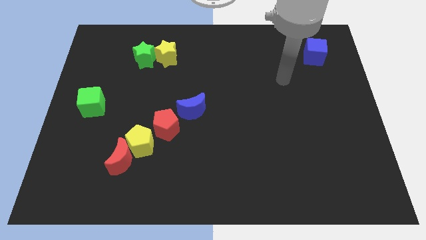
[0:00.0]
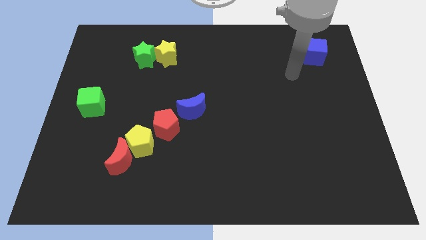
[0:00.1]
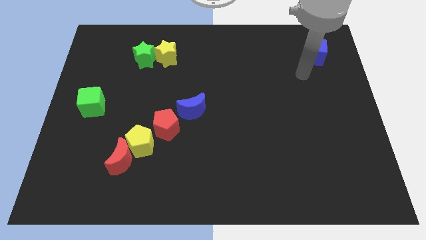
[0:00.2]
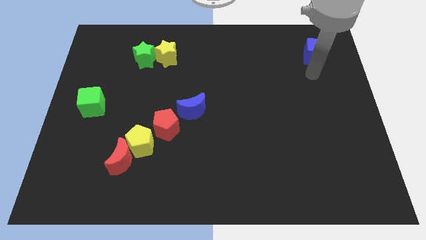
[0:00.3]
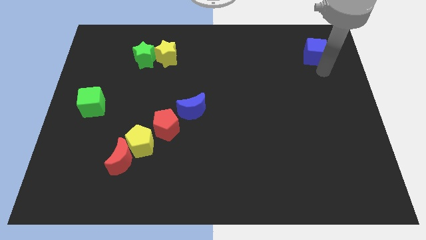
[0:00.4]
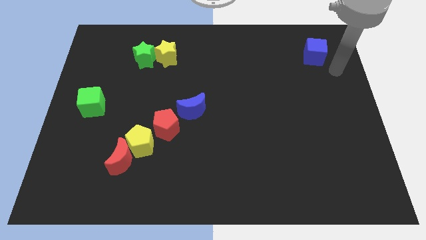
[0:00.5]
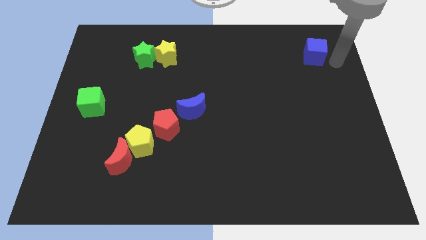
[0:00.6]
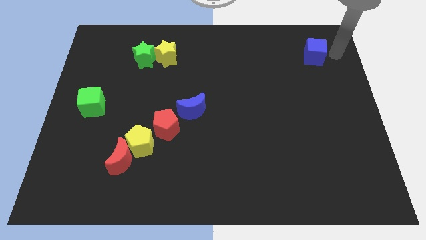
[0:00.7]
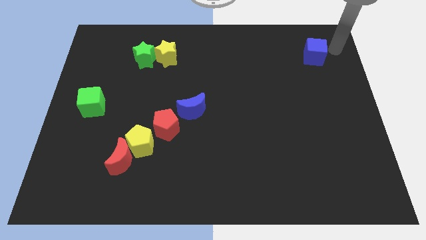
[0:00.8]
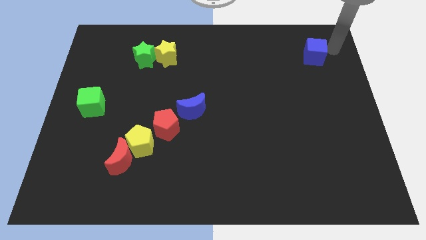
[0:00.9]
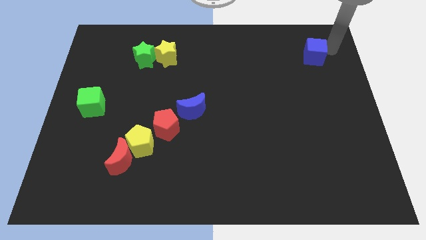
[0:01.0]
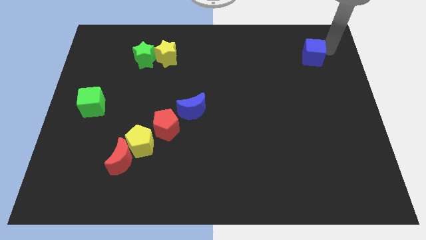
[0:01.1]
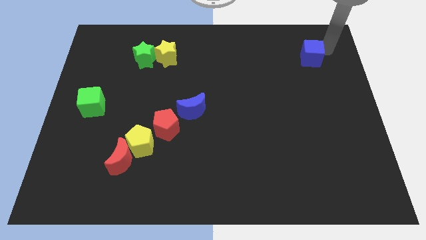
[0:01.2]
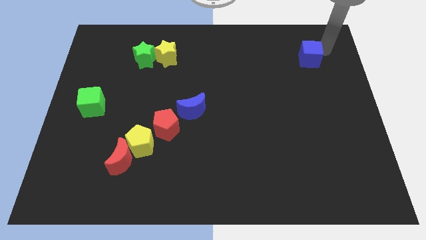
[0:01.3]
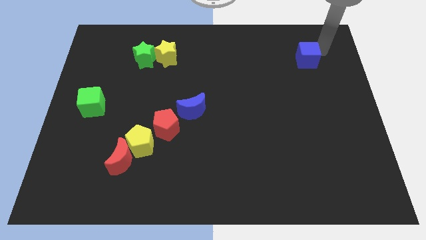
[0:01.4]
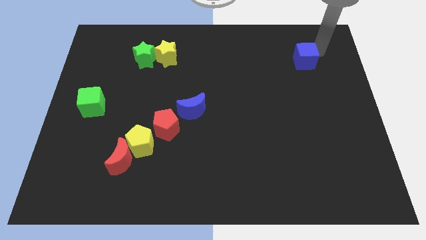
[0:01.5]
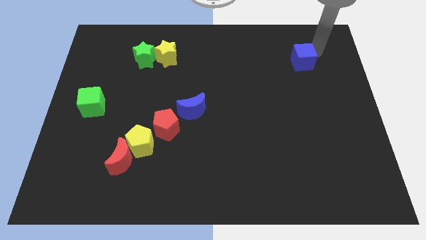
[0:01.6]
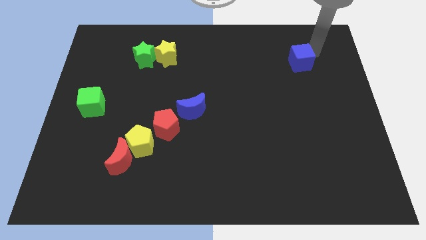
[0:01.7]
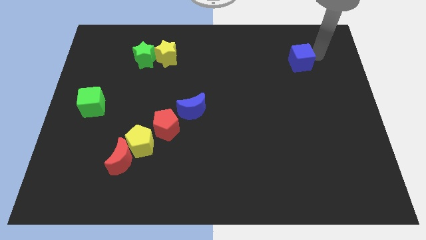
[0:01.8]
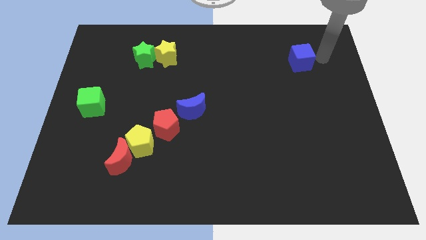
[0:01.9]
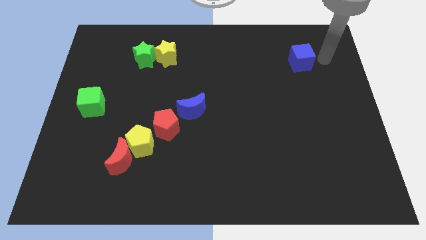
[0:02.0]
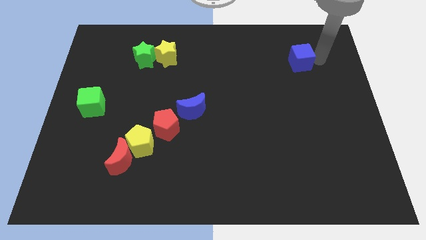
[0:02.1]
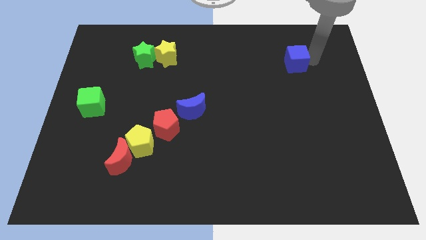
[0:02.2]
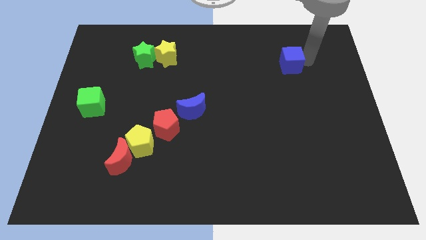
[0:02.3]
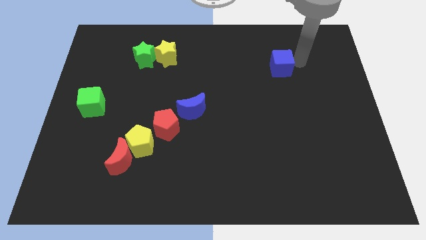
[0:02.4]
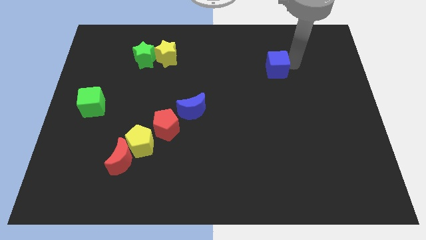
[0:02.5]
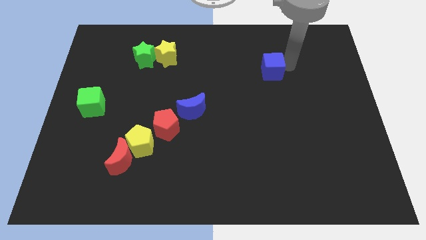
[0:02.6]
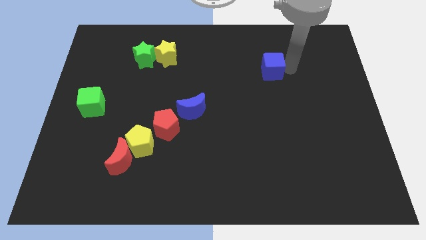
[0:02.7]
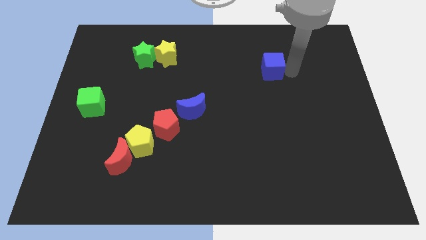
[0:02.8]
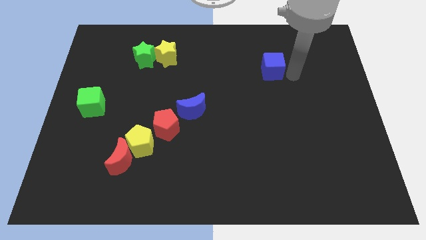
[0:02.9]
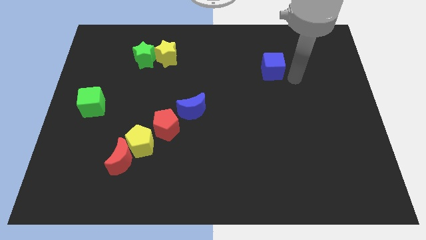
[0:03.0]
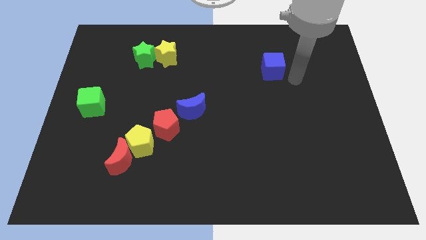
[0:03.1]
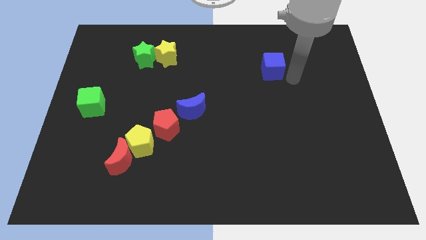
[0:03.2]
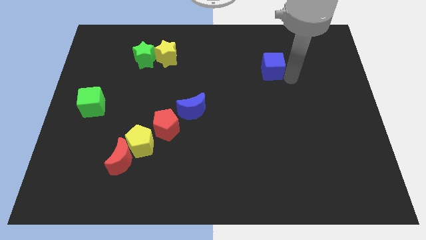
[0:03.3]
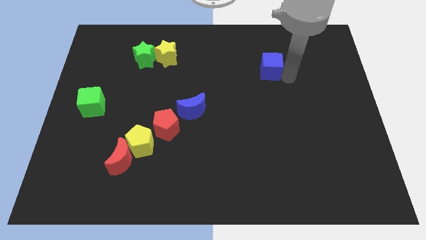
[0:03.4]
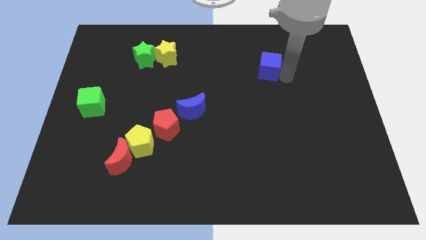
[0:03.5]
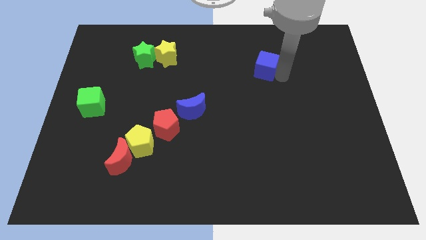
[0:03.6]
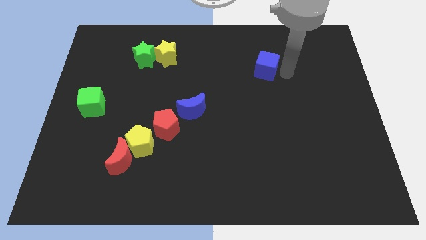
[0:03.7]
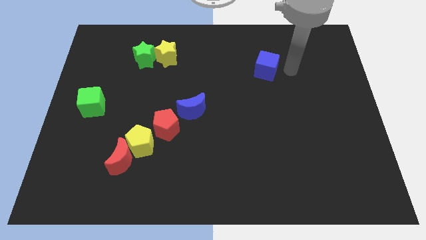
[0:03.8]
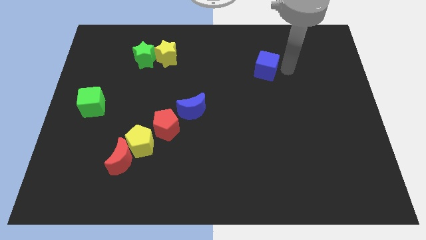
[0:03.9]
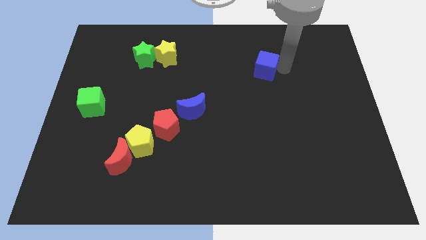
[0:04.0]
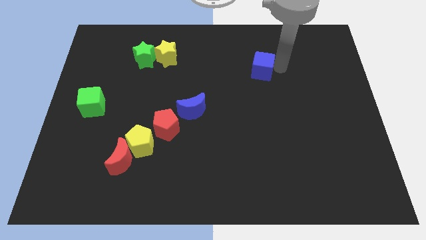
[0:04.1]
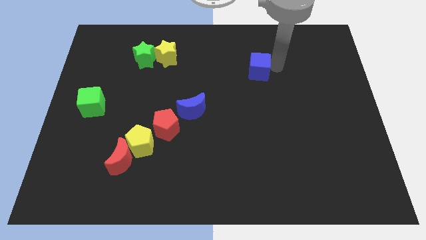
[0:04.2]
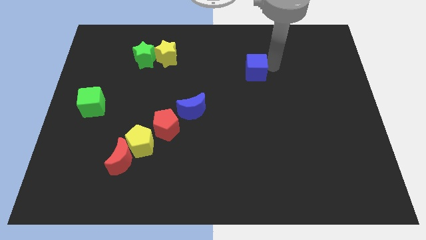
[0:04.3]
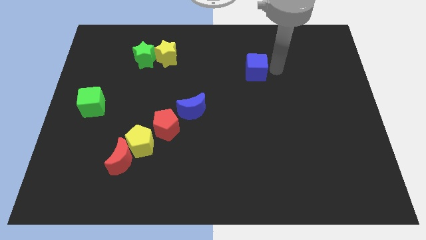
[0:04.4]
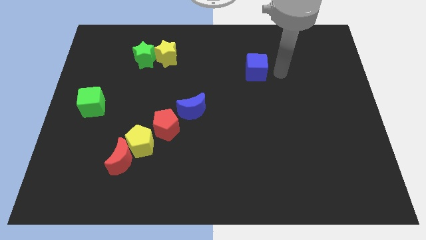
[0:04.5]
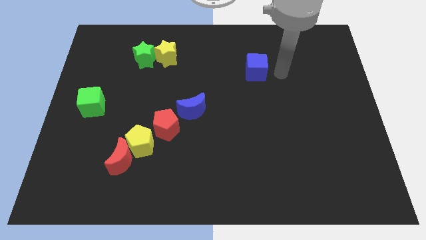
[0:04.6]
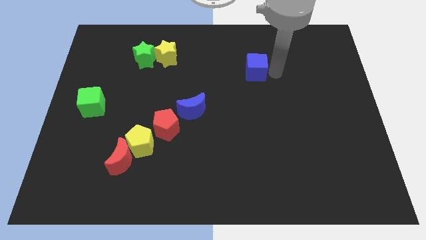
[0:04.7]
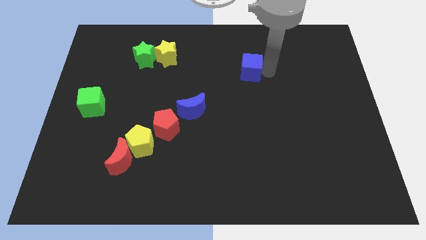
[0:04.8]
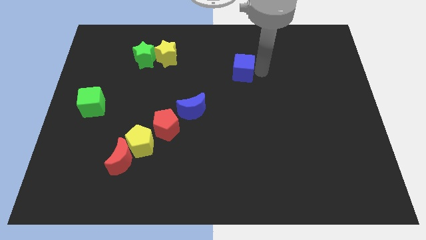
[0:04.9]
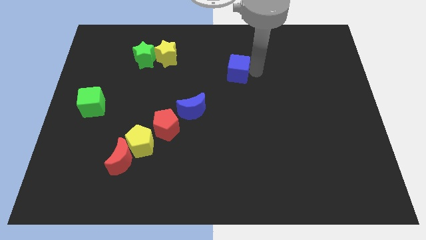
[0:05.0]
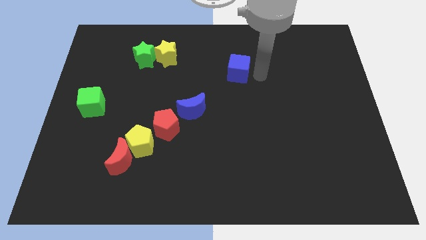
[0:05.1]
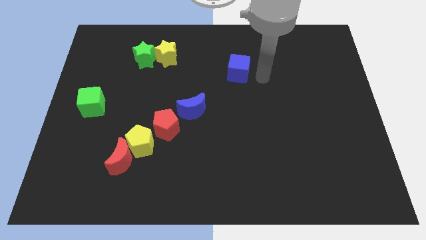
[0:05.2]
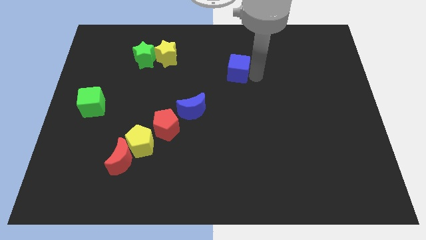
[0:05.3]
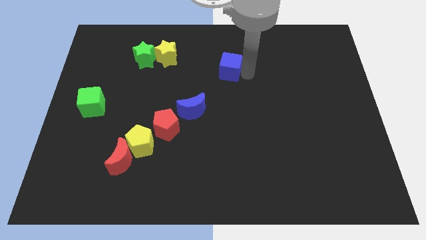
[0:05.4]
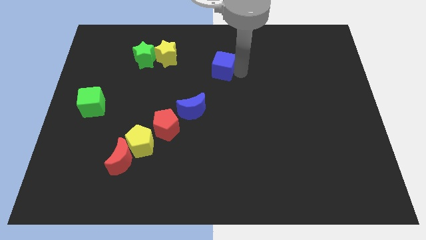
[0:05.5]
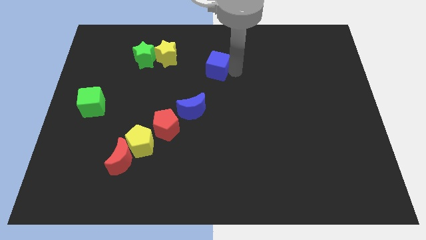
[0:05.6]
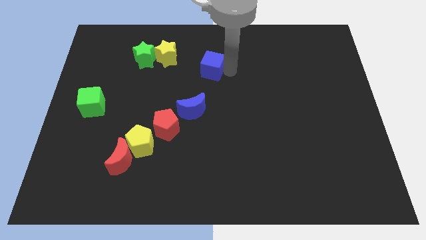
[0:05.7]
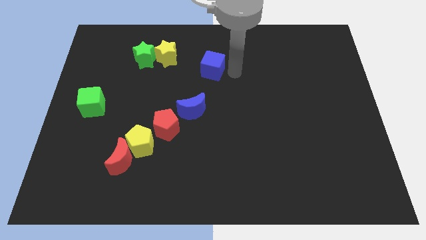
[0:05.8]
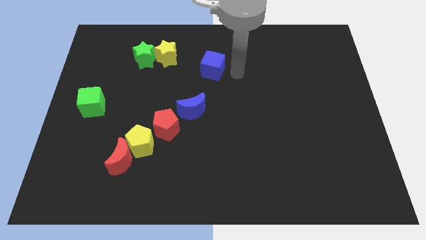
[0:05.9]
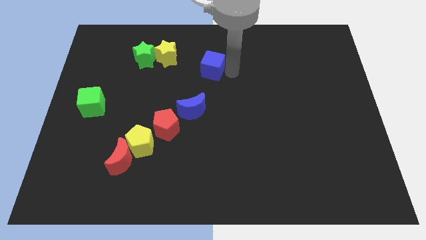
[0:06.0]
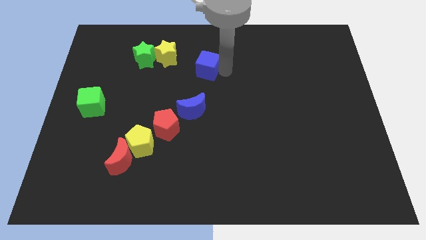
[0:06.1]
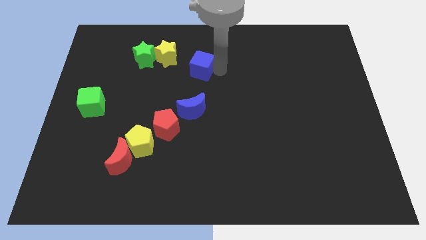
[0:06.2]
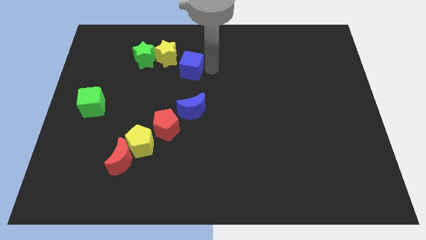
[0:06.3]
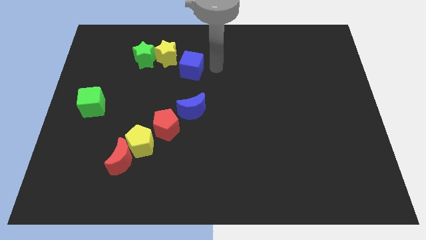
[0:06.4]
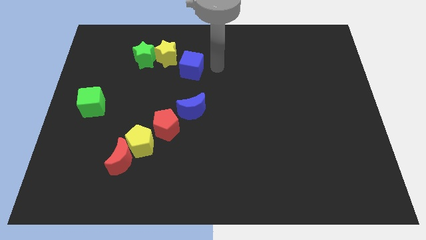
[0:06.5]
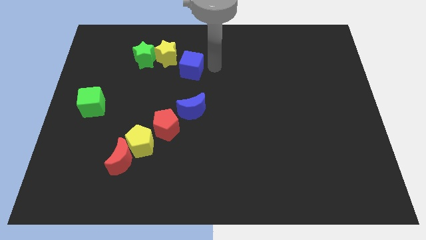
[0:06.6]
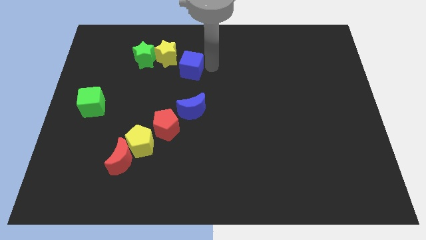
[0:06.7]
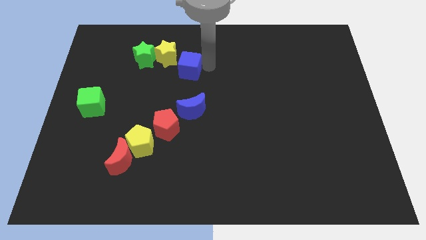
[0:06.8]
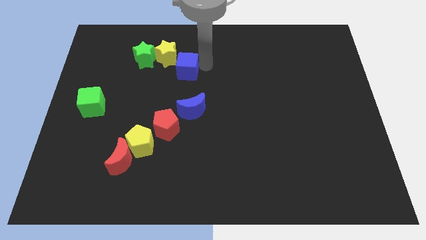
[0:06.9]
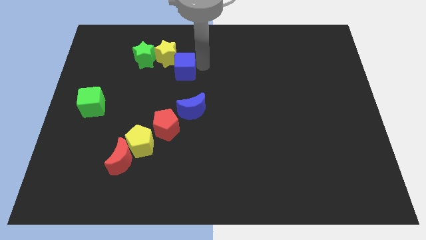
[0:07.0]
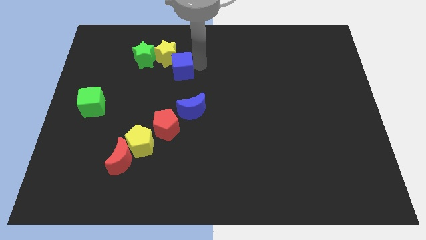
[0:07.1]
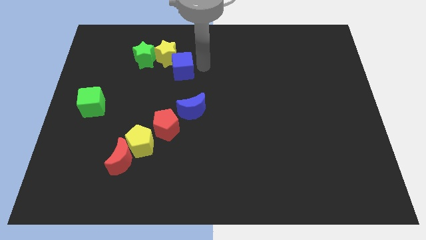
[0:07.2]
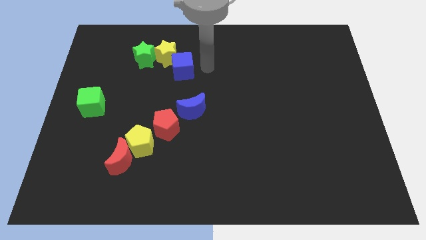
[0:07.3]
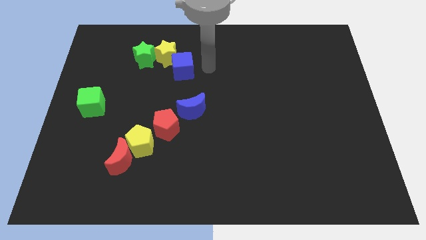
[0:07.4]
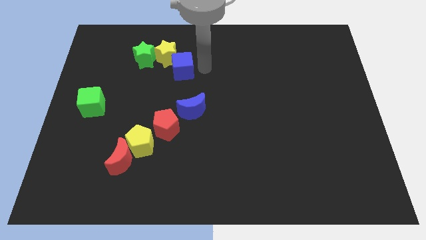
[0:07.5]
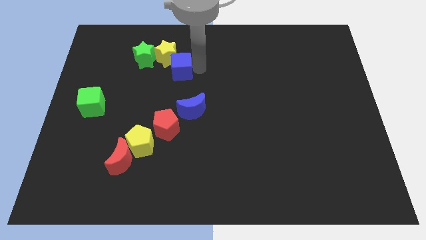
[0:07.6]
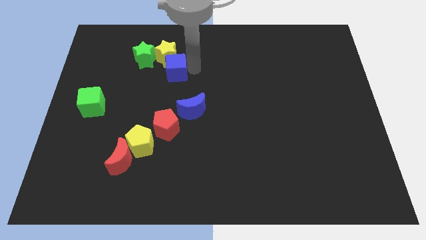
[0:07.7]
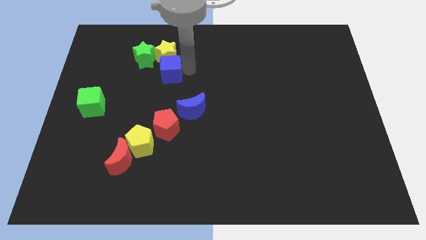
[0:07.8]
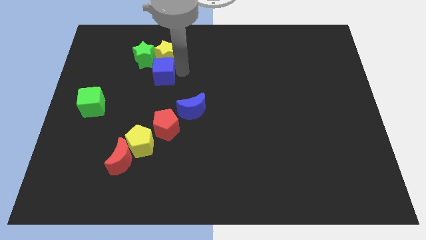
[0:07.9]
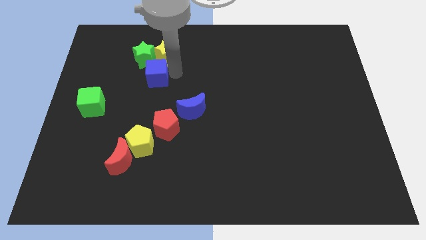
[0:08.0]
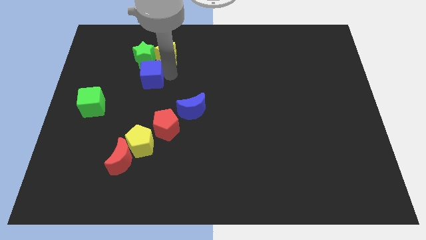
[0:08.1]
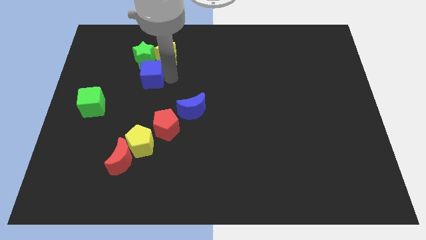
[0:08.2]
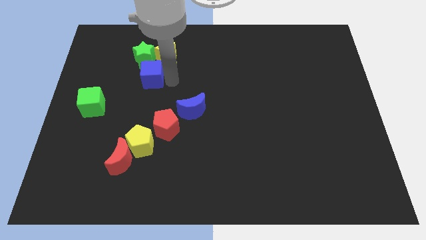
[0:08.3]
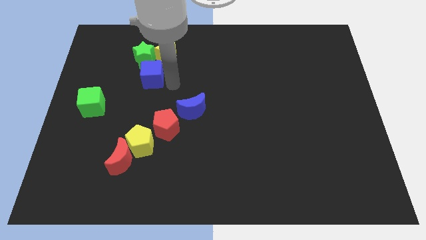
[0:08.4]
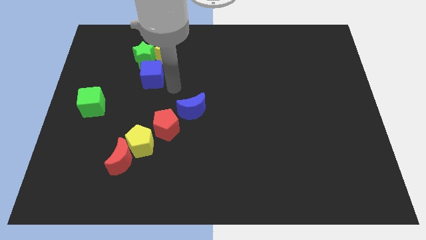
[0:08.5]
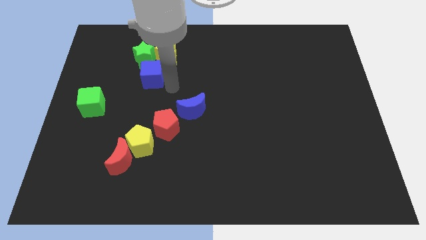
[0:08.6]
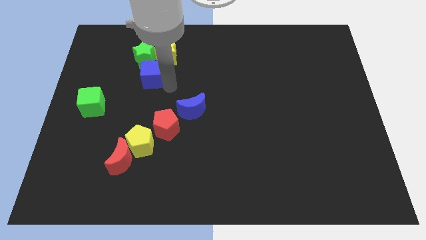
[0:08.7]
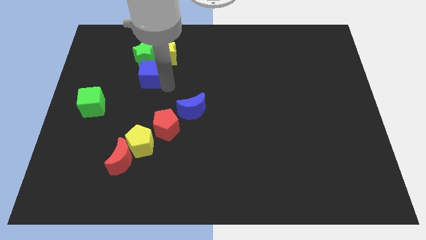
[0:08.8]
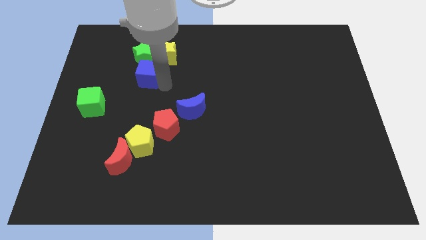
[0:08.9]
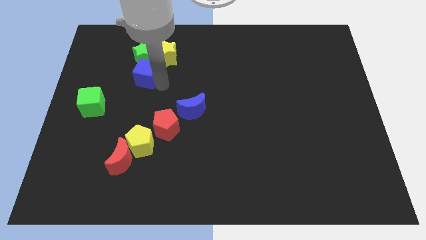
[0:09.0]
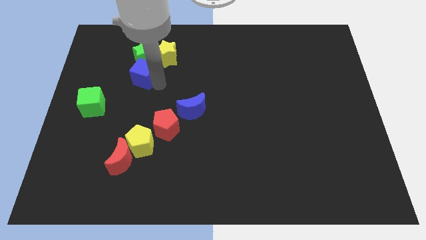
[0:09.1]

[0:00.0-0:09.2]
slide the blue cube diagonally down and to the left of the green star
